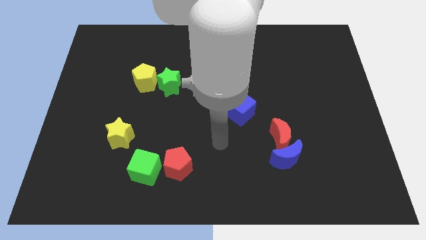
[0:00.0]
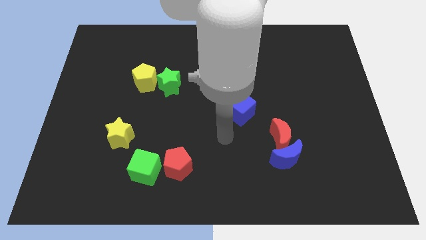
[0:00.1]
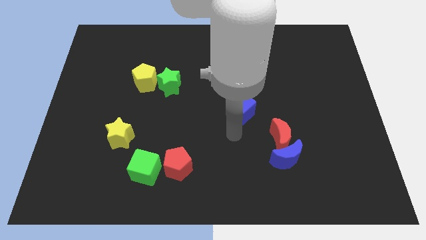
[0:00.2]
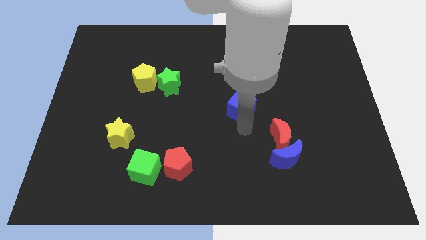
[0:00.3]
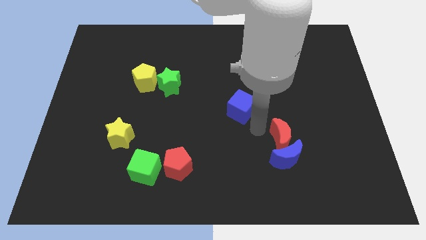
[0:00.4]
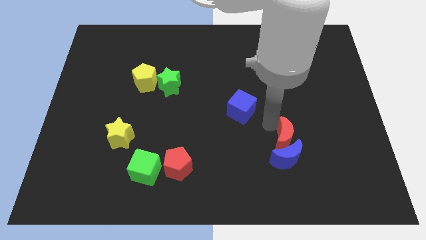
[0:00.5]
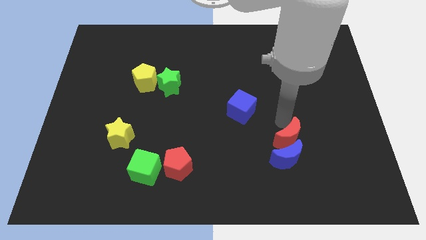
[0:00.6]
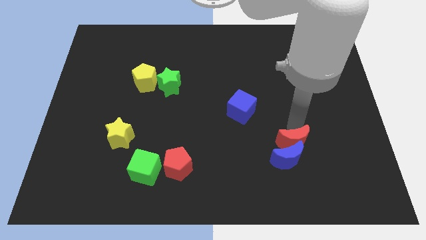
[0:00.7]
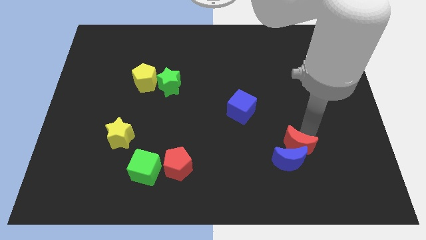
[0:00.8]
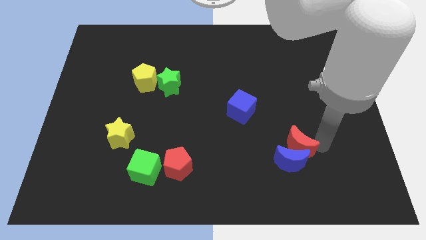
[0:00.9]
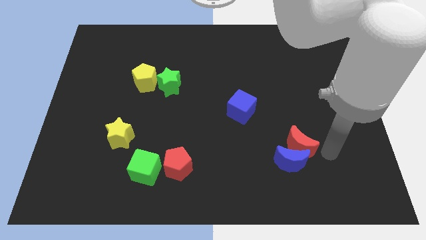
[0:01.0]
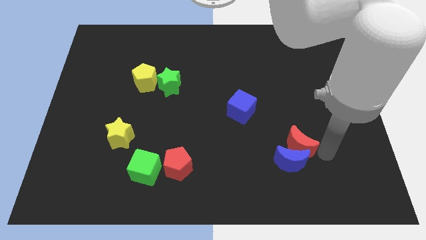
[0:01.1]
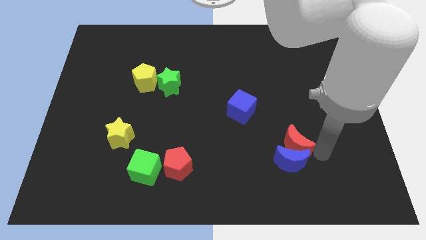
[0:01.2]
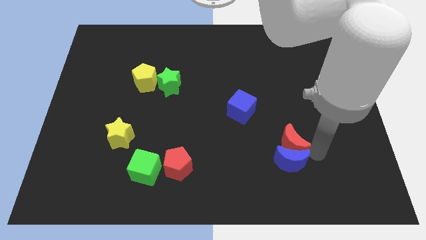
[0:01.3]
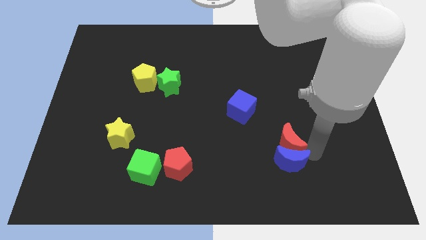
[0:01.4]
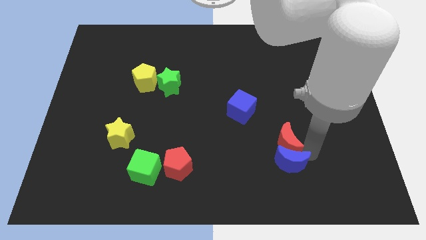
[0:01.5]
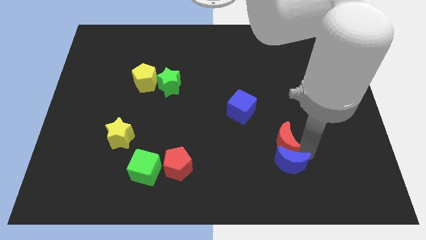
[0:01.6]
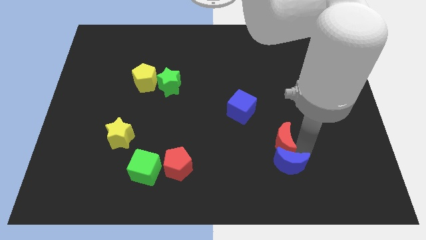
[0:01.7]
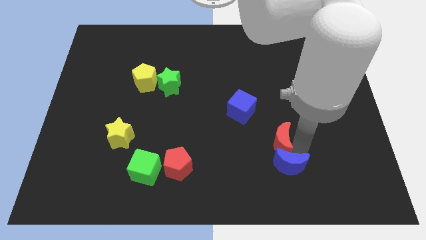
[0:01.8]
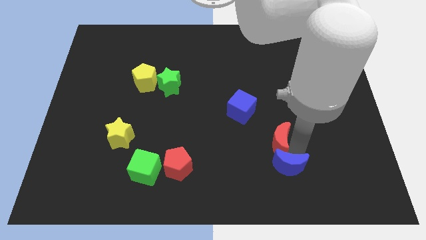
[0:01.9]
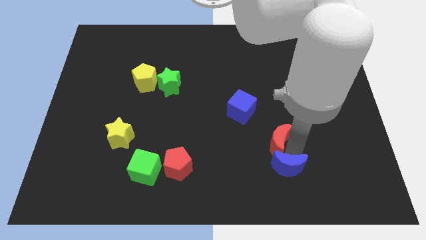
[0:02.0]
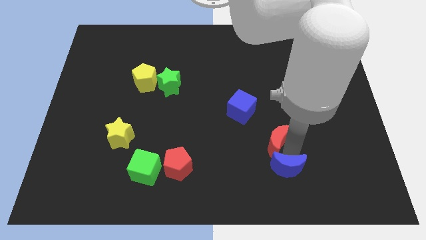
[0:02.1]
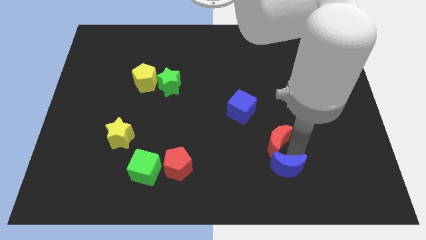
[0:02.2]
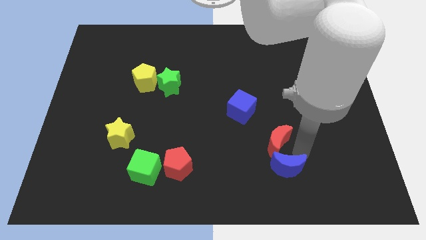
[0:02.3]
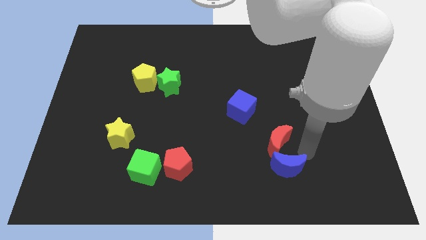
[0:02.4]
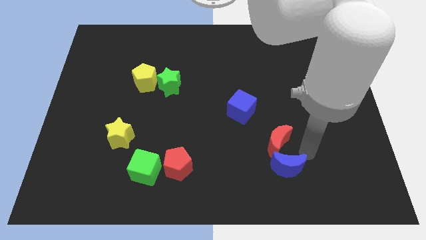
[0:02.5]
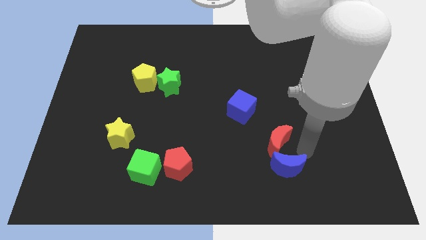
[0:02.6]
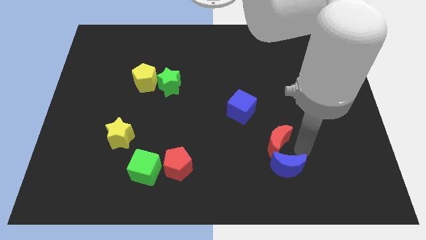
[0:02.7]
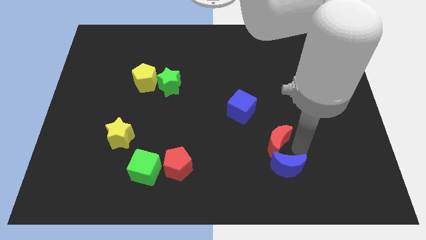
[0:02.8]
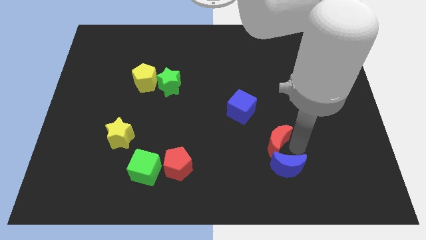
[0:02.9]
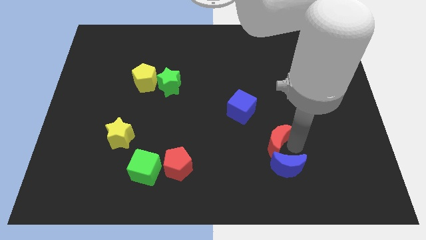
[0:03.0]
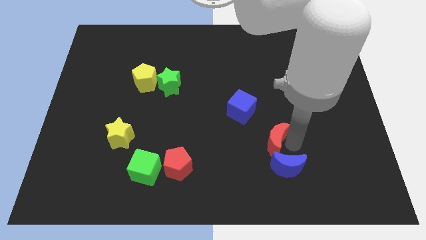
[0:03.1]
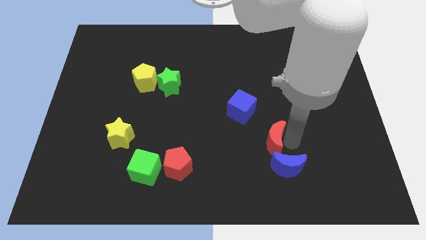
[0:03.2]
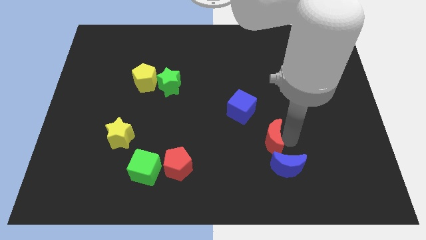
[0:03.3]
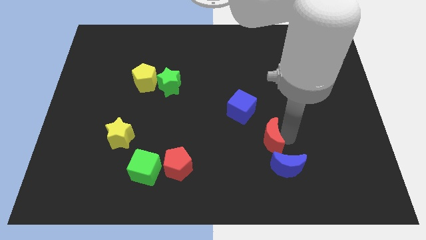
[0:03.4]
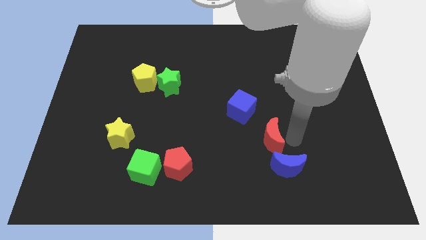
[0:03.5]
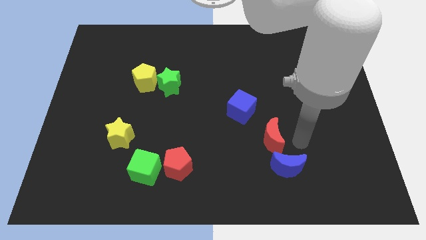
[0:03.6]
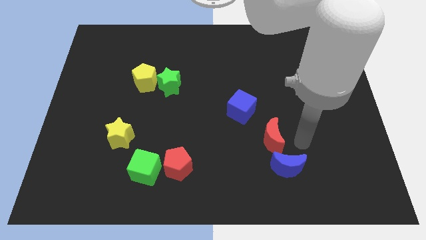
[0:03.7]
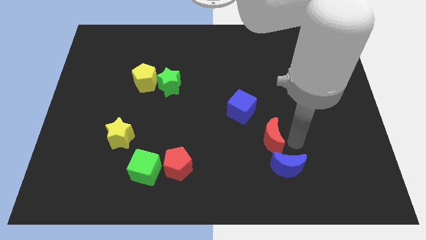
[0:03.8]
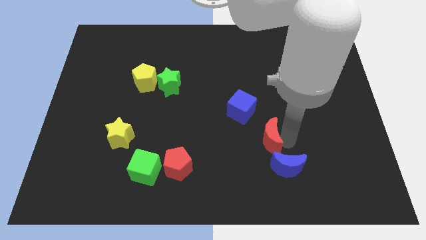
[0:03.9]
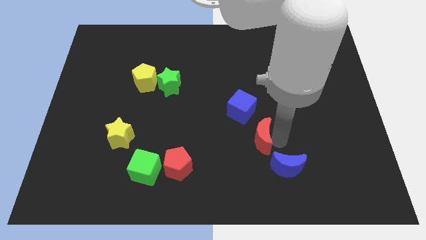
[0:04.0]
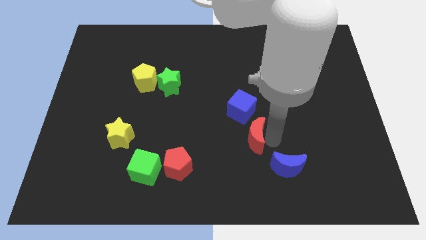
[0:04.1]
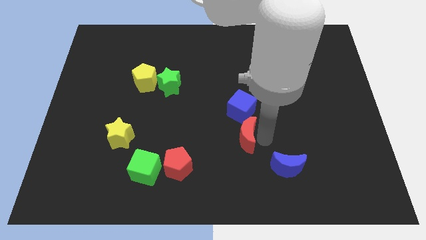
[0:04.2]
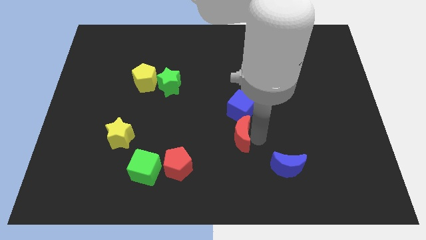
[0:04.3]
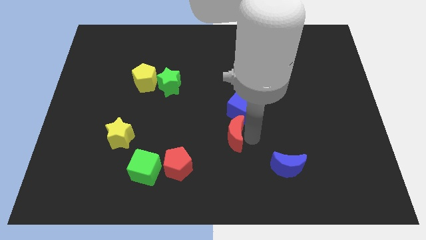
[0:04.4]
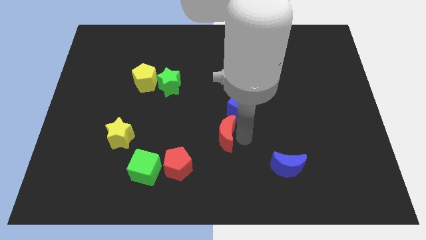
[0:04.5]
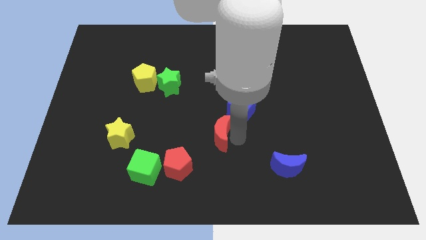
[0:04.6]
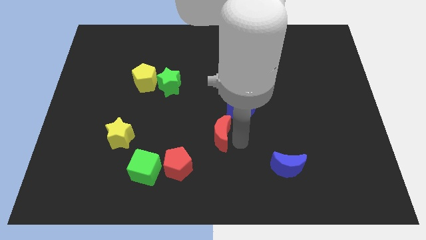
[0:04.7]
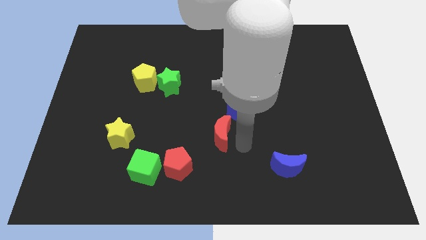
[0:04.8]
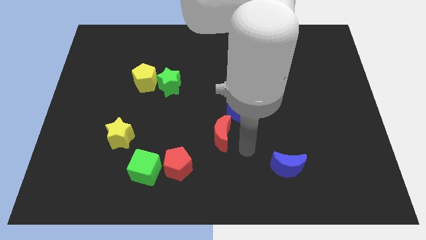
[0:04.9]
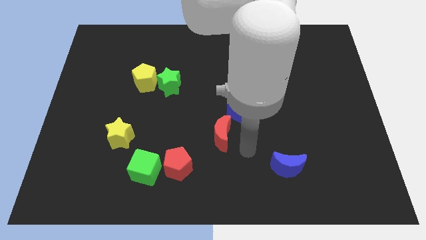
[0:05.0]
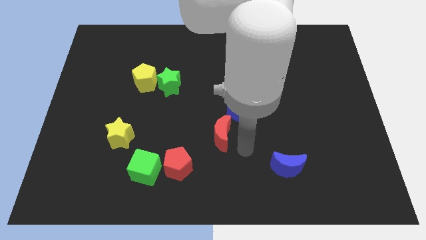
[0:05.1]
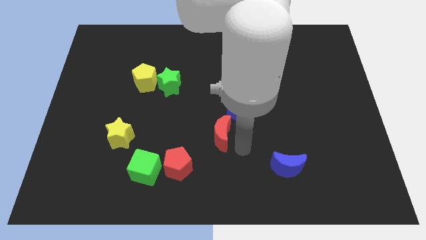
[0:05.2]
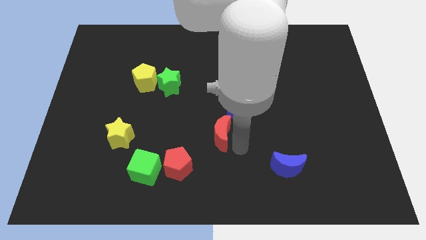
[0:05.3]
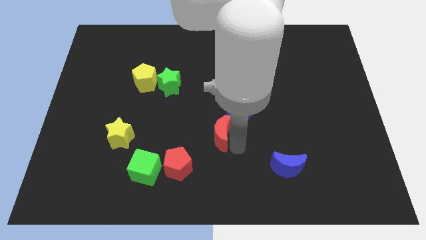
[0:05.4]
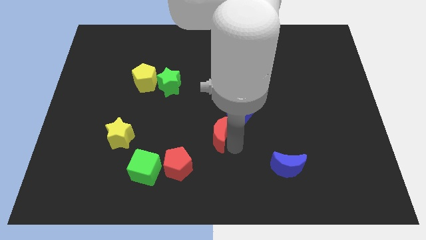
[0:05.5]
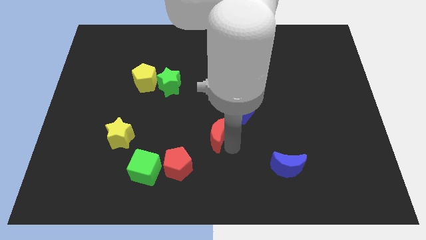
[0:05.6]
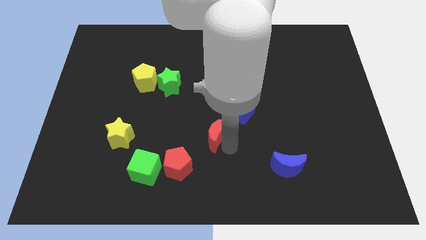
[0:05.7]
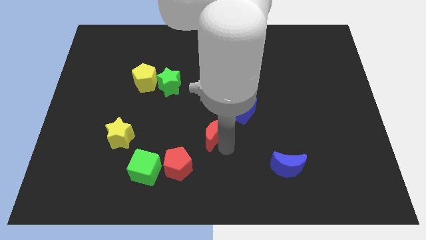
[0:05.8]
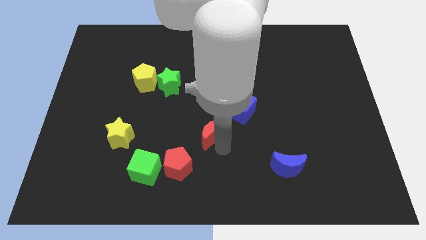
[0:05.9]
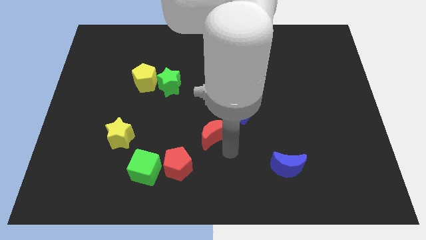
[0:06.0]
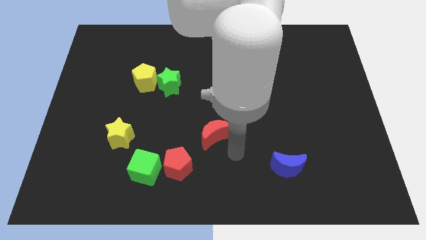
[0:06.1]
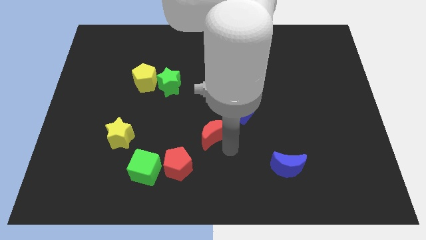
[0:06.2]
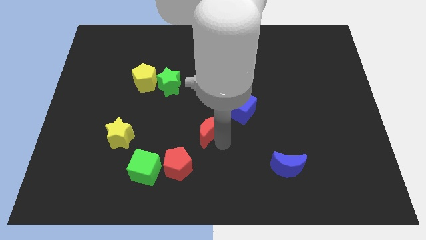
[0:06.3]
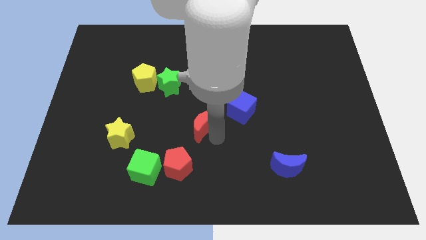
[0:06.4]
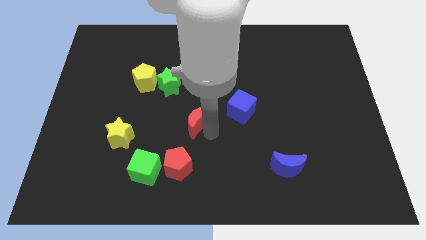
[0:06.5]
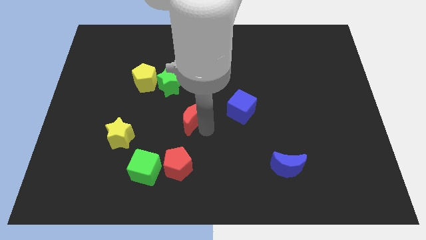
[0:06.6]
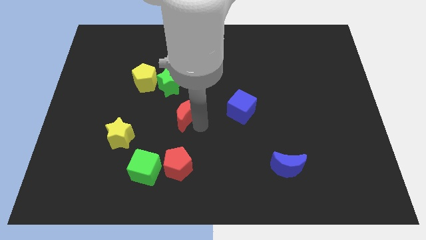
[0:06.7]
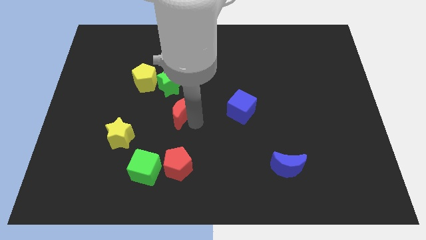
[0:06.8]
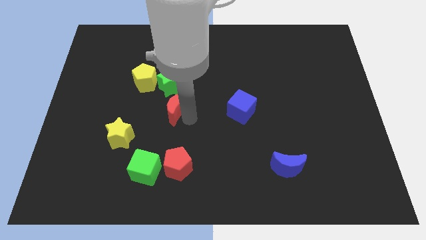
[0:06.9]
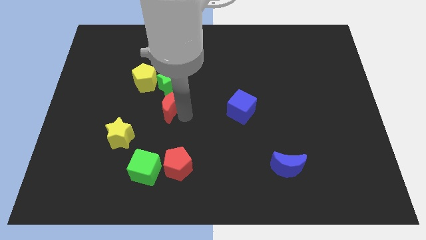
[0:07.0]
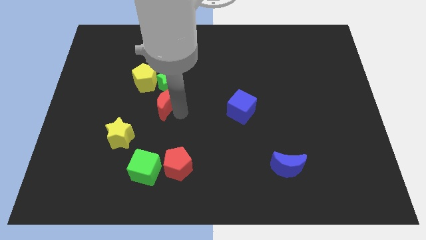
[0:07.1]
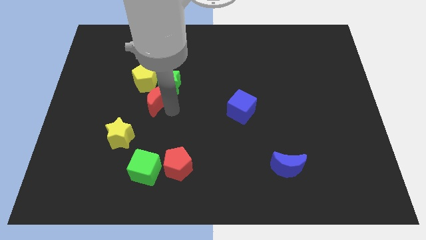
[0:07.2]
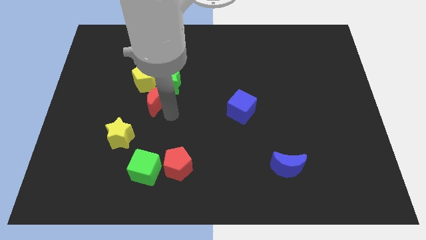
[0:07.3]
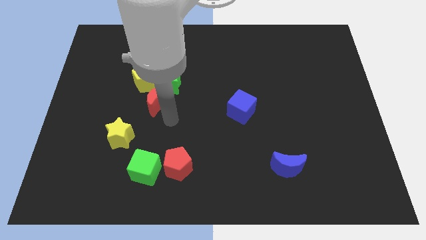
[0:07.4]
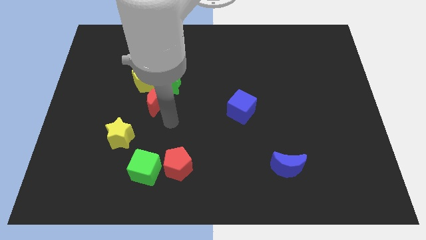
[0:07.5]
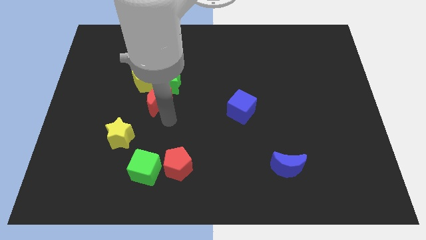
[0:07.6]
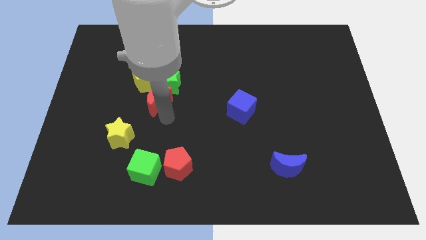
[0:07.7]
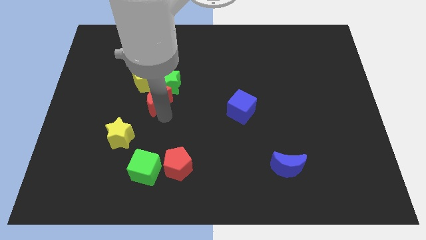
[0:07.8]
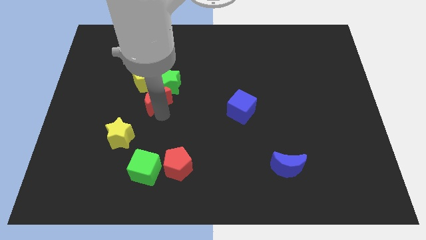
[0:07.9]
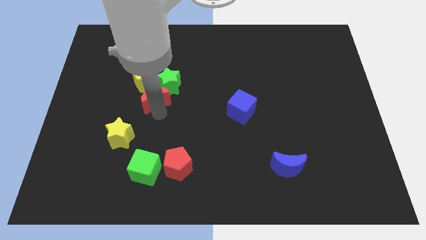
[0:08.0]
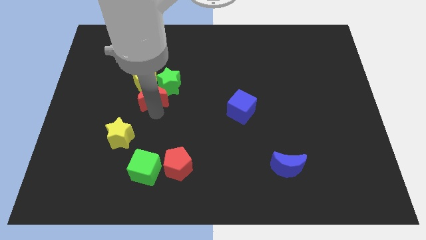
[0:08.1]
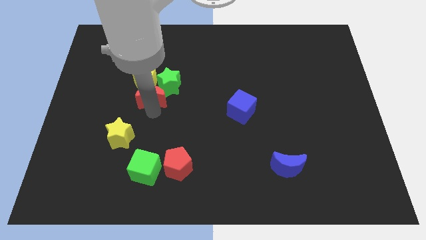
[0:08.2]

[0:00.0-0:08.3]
put the red moon close to the yellow pentagon
